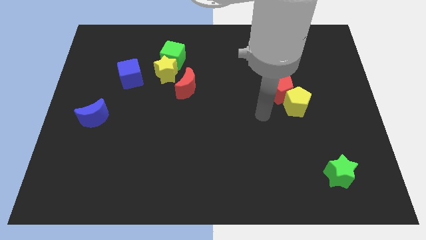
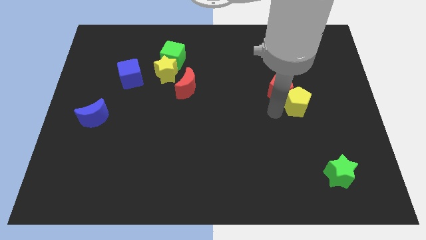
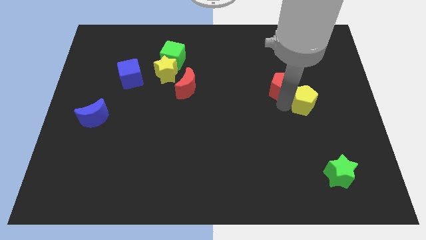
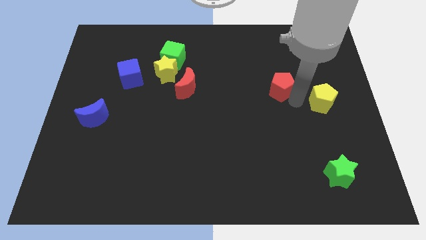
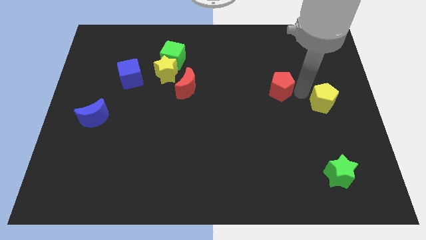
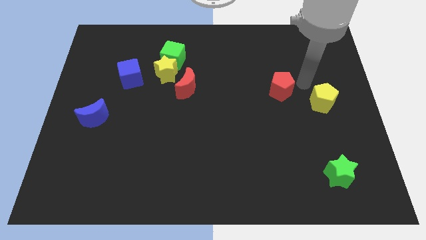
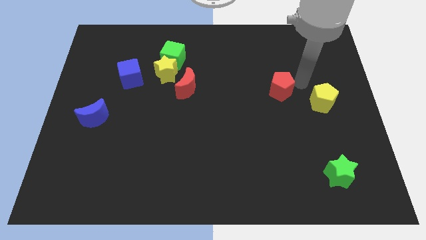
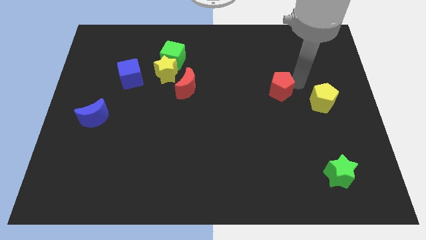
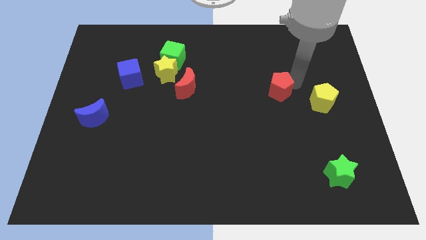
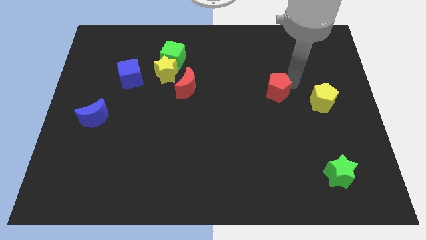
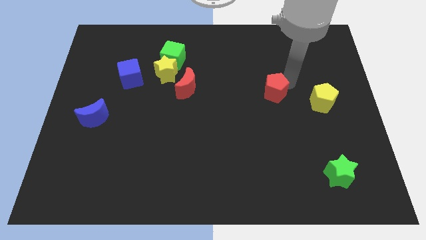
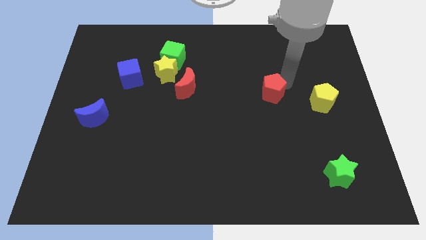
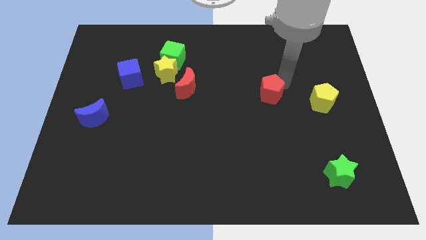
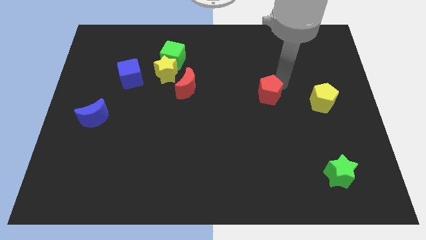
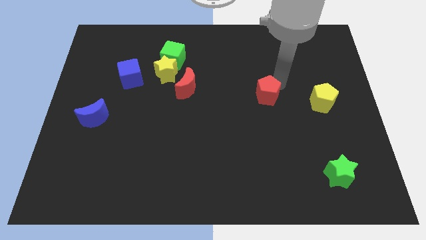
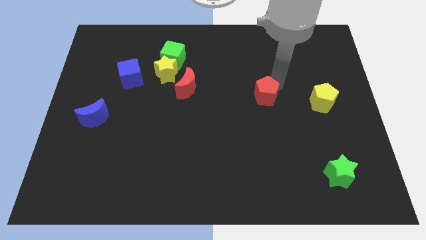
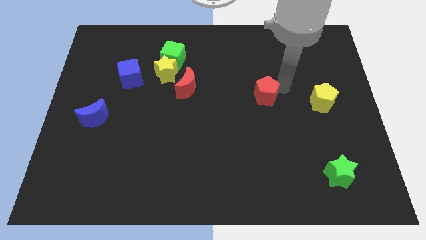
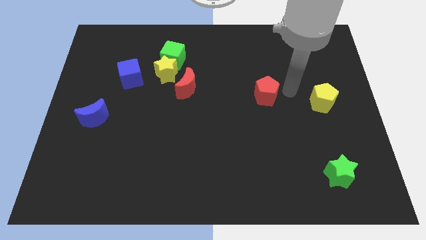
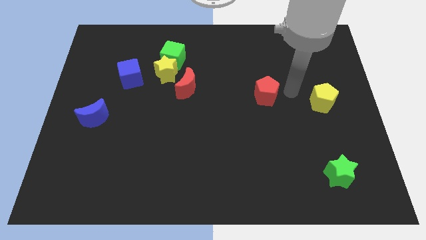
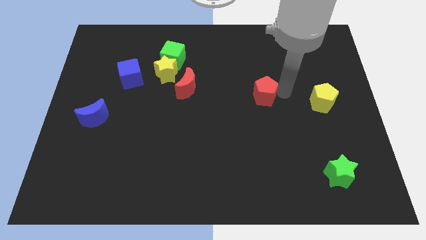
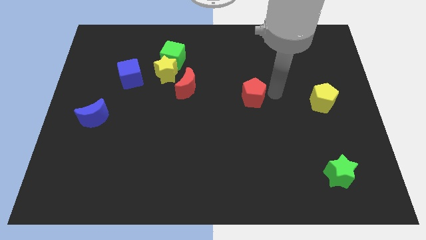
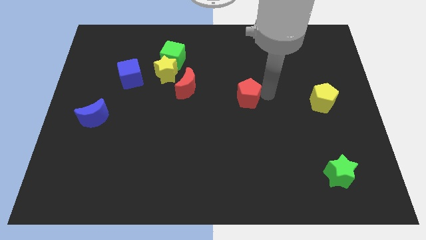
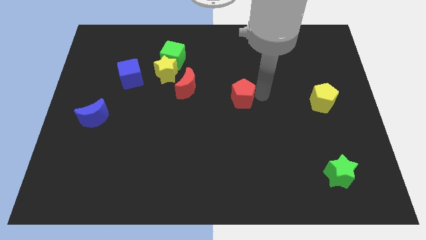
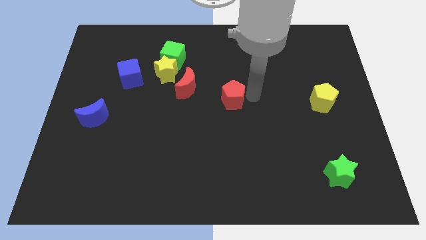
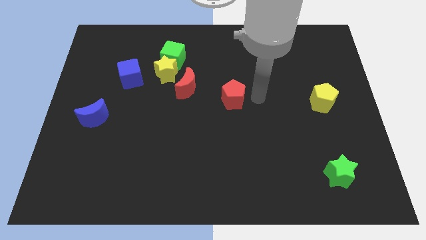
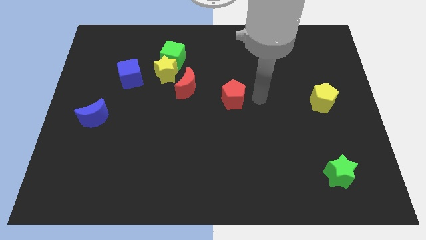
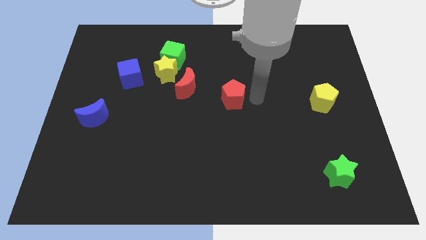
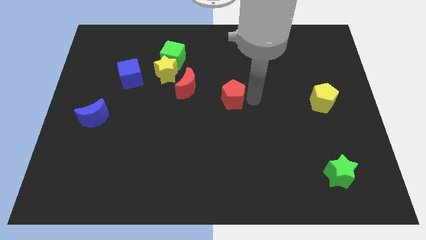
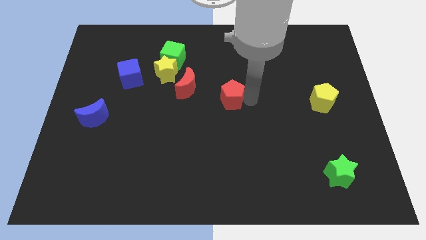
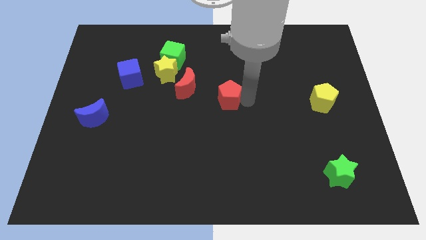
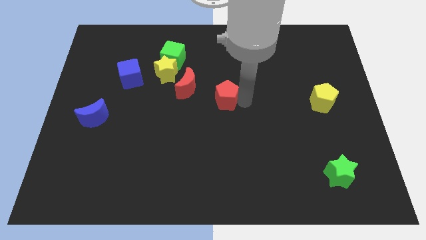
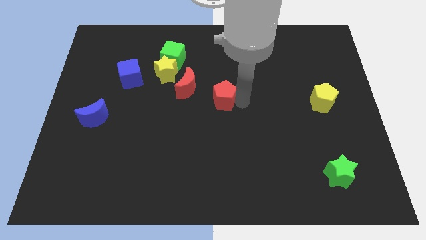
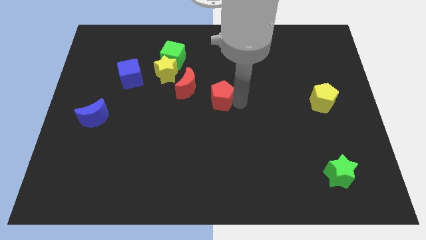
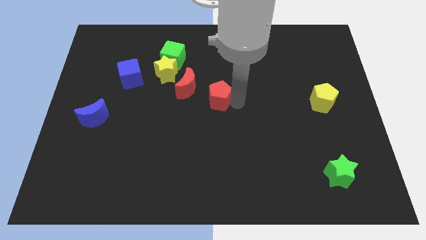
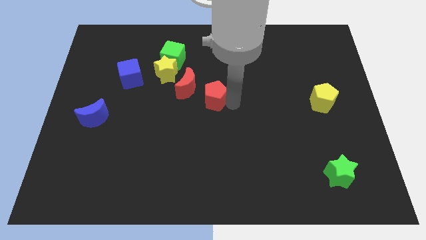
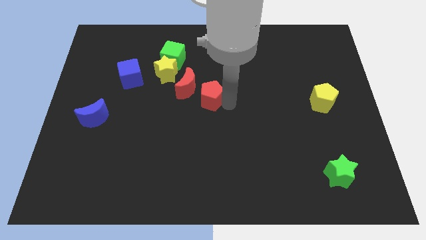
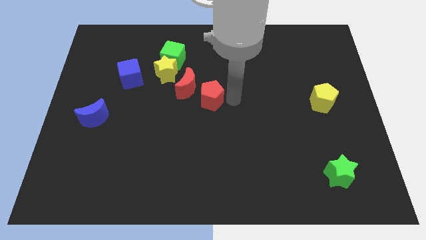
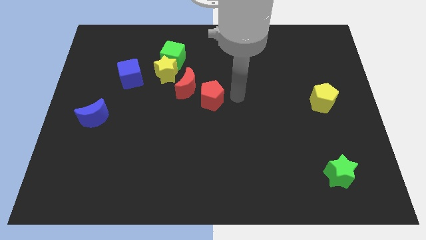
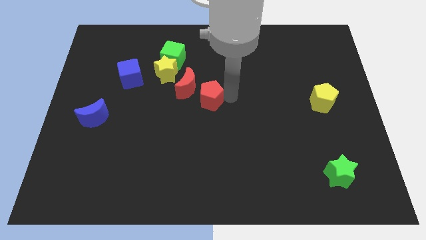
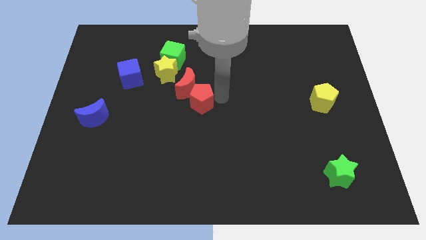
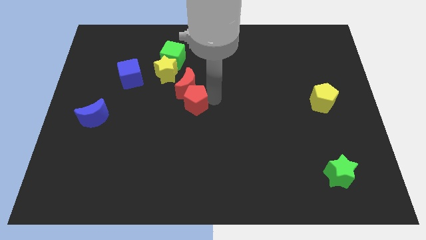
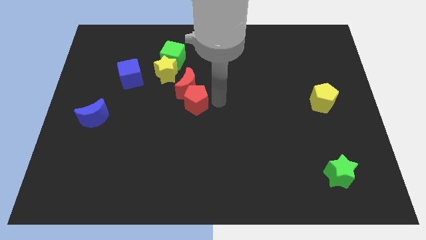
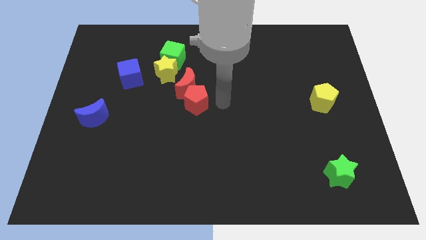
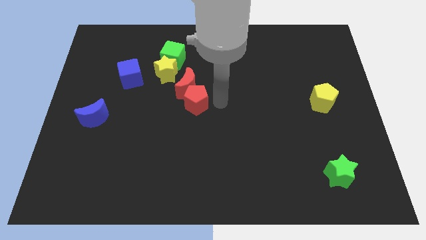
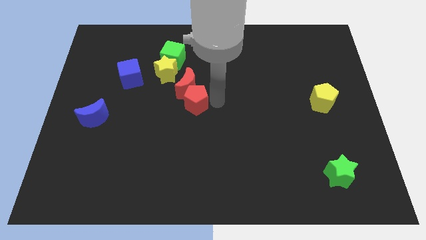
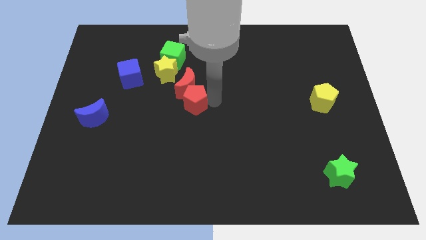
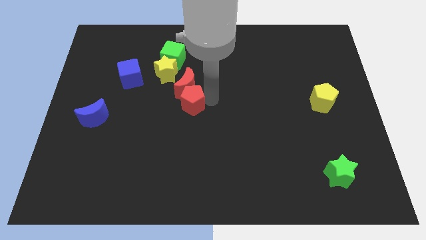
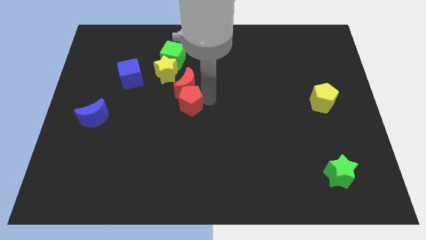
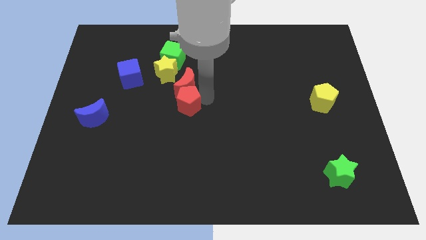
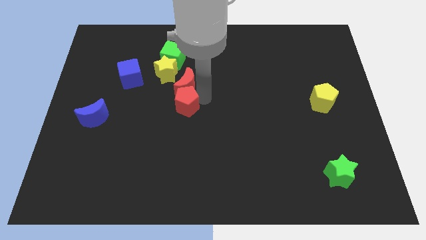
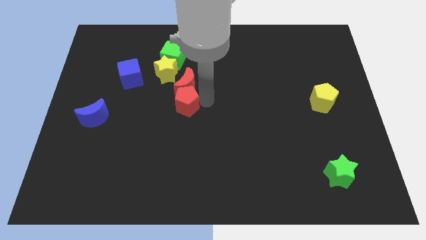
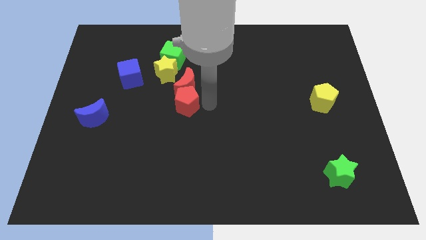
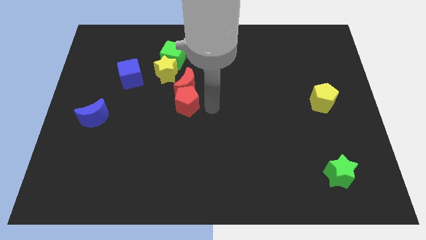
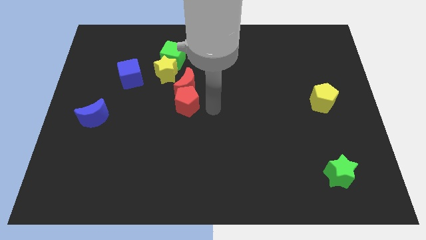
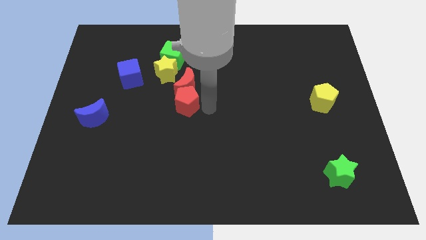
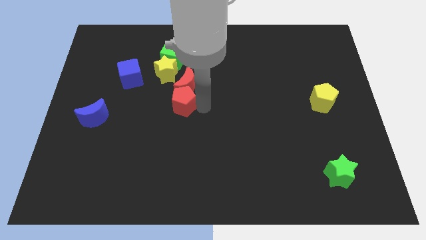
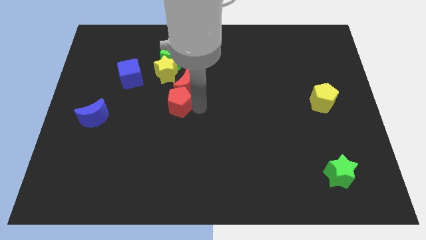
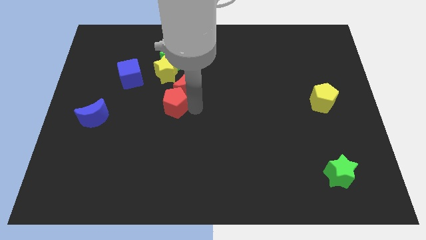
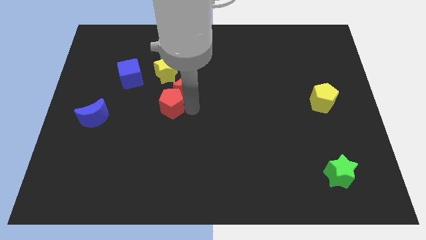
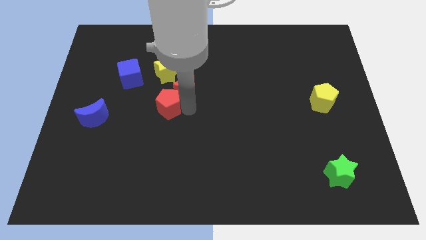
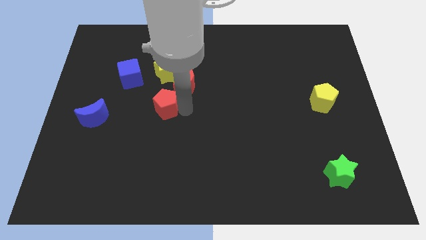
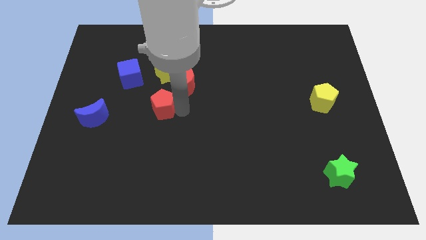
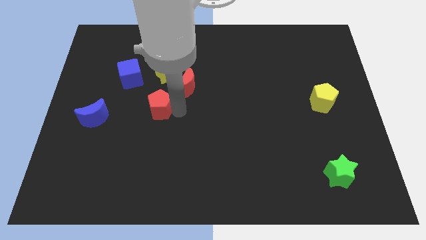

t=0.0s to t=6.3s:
move the red pentagon to the bottom right of the blue cube

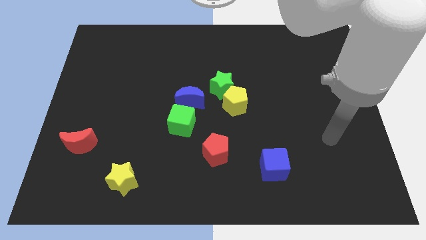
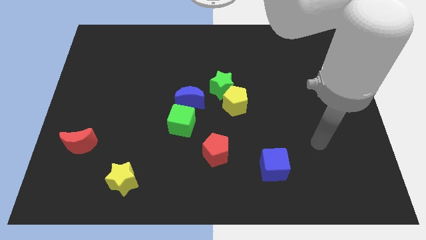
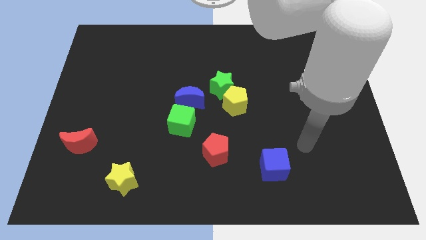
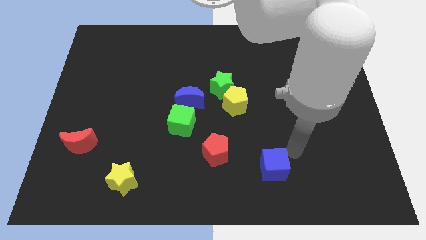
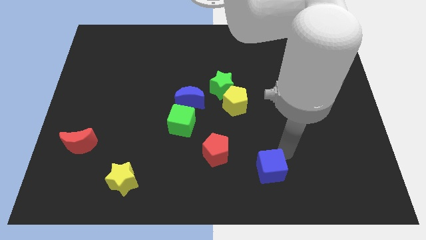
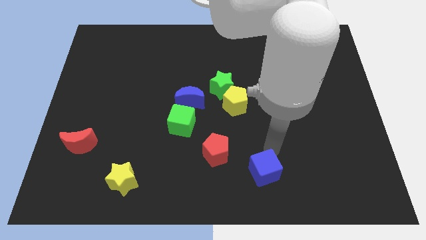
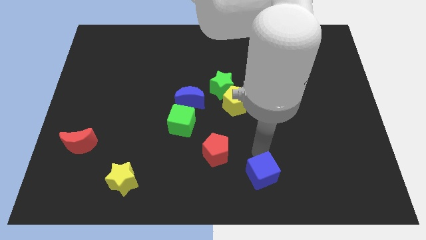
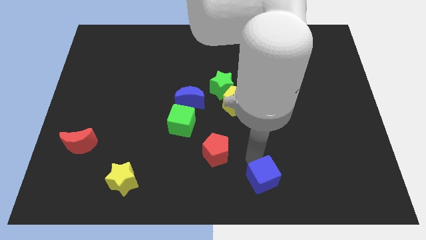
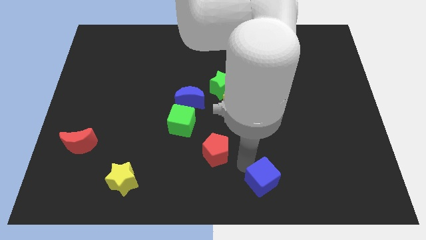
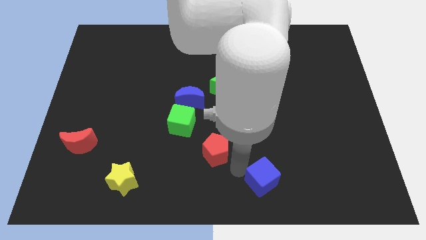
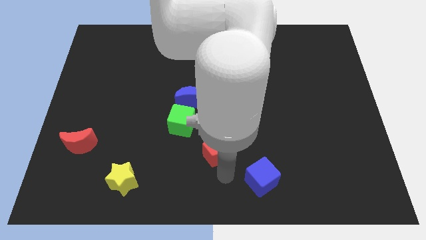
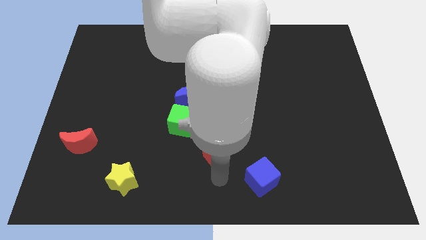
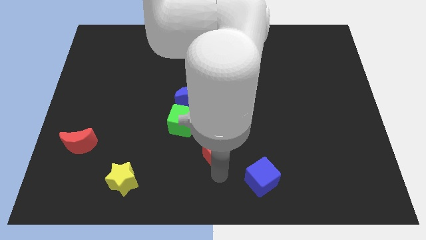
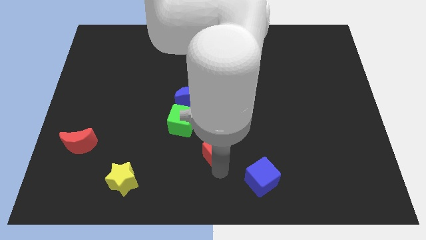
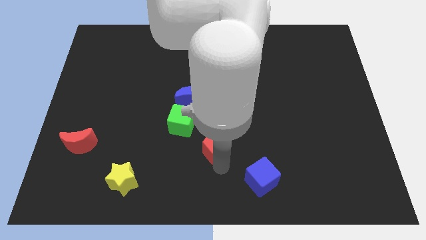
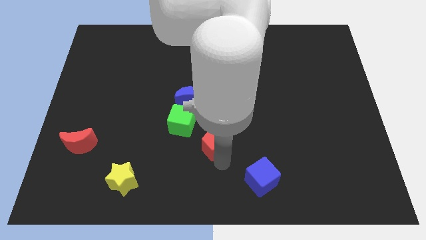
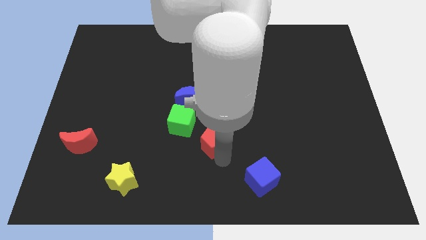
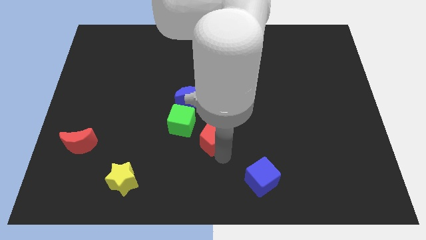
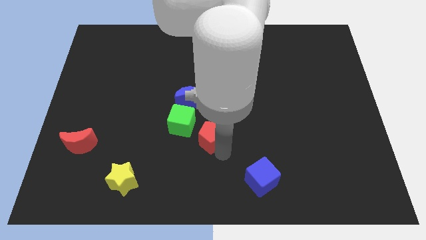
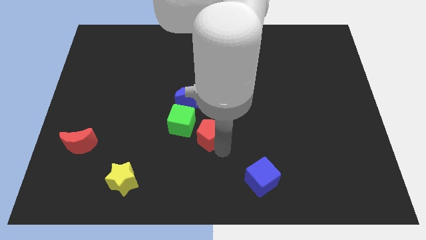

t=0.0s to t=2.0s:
slide the red pentagon to the bottom right of the blue moon

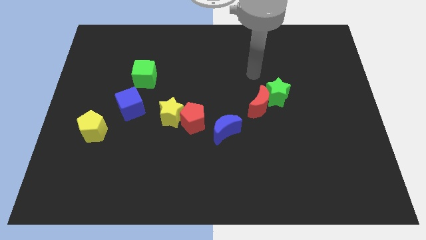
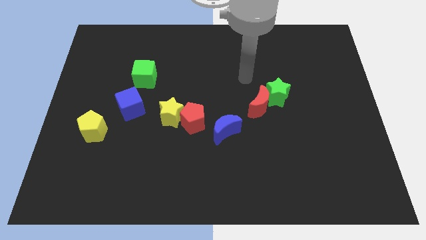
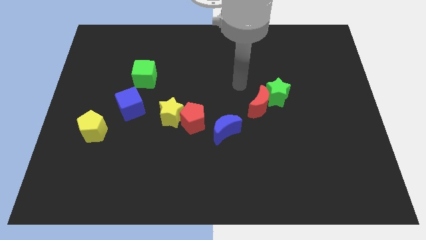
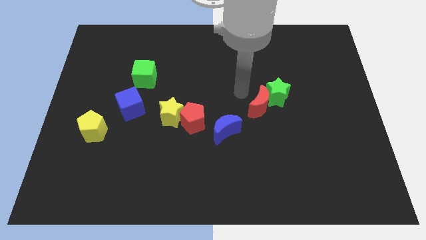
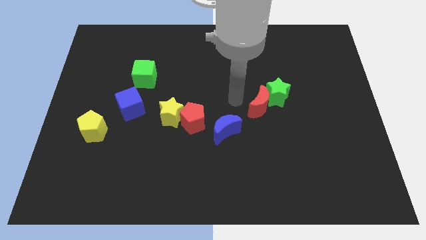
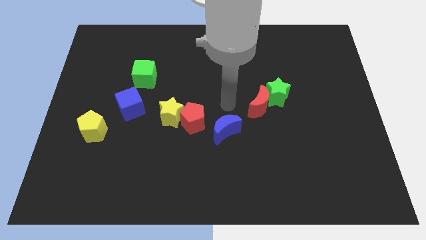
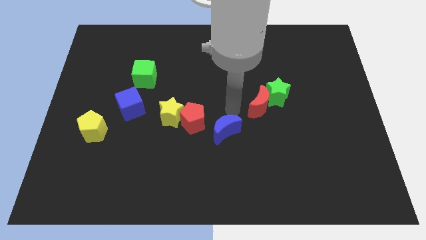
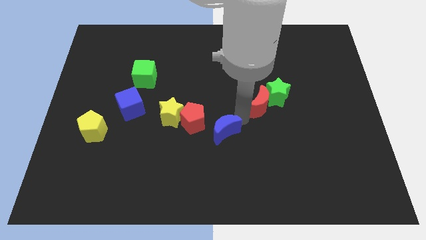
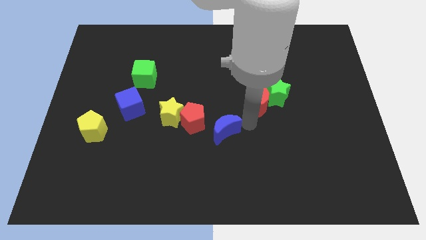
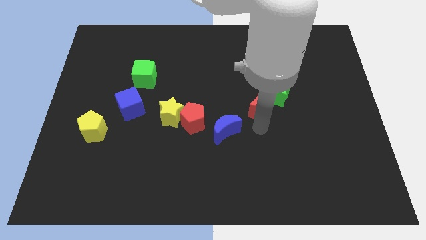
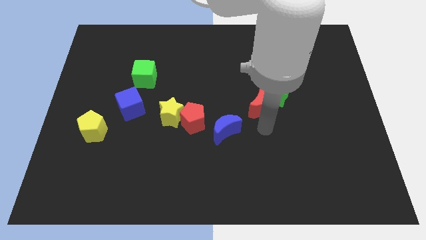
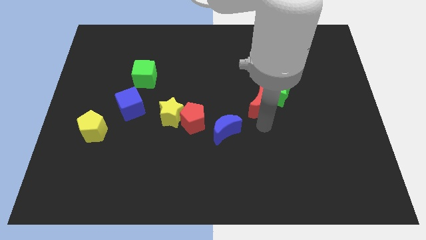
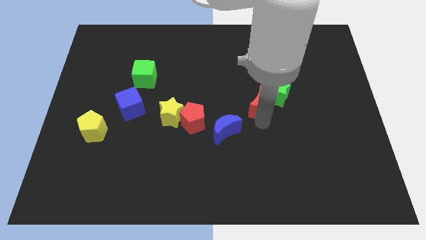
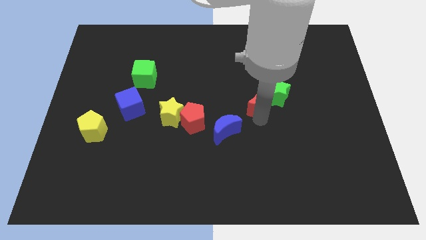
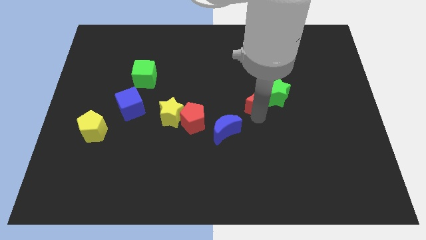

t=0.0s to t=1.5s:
put the red moon to the top left of the green star
